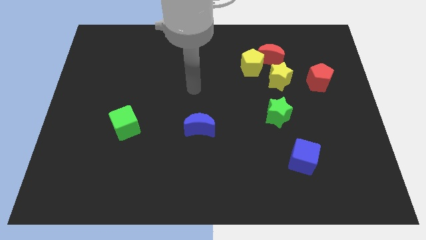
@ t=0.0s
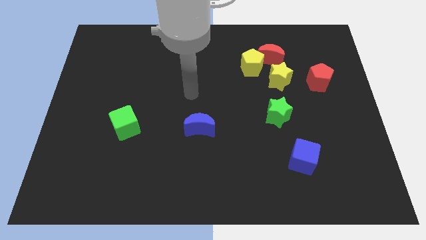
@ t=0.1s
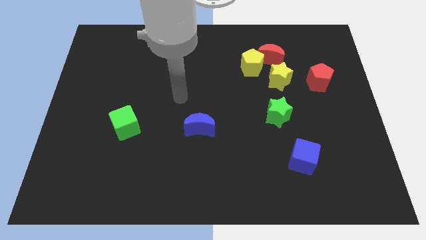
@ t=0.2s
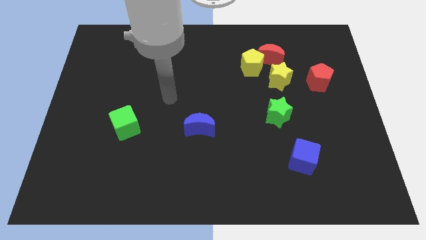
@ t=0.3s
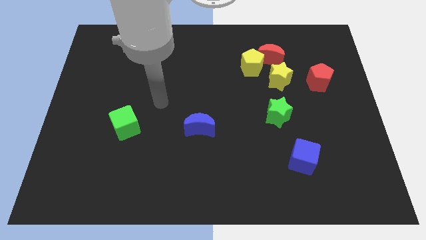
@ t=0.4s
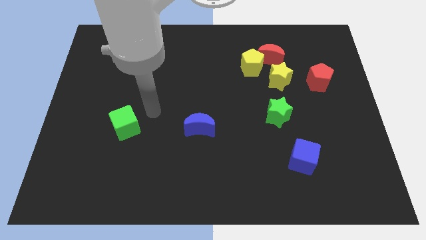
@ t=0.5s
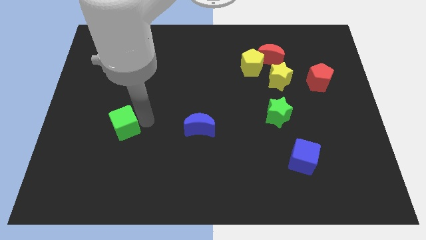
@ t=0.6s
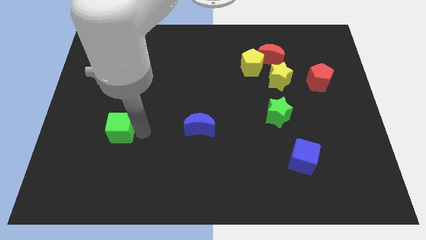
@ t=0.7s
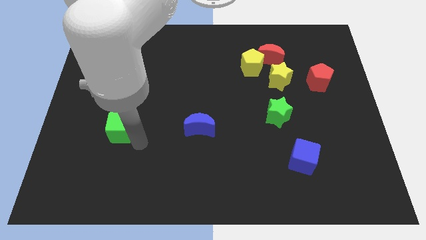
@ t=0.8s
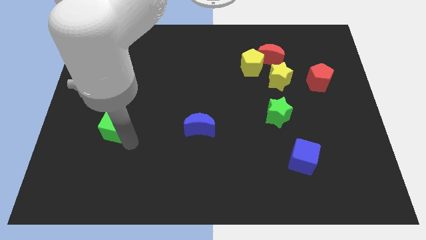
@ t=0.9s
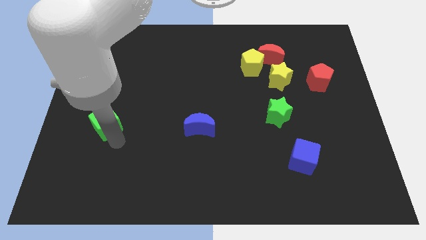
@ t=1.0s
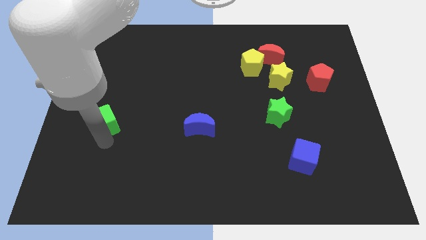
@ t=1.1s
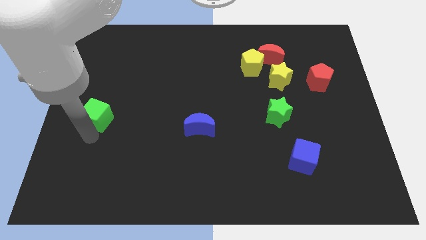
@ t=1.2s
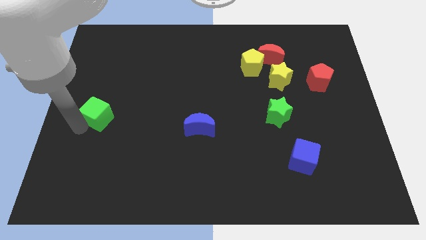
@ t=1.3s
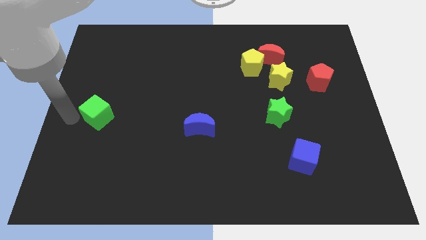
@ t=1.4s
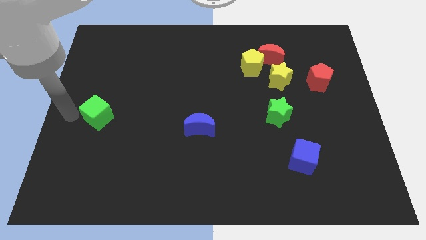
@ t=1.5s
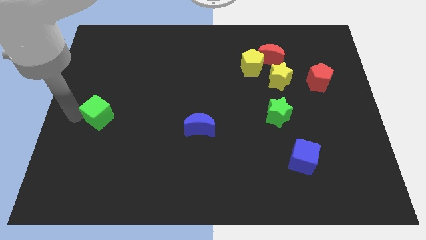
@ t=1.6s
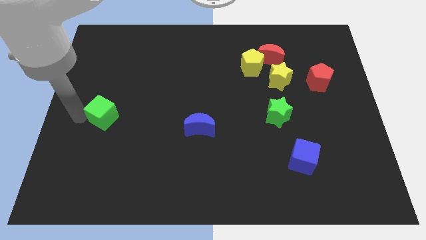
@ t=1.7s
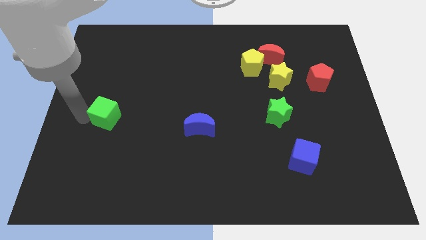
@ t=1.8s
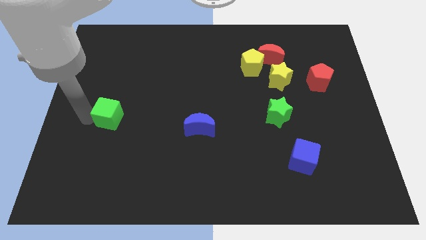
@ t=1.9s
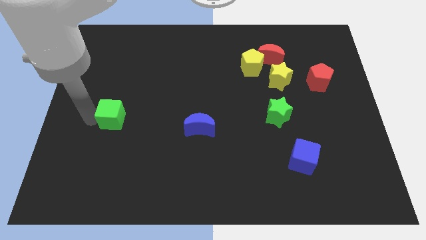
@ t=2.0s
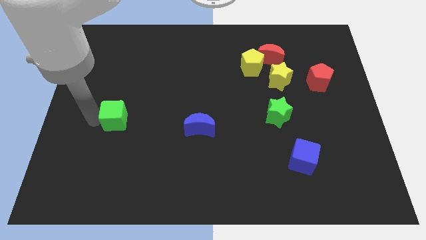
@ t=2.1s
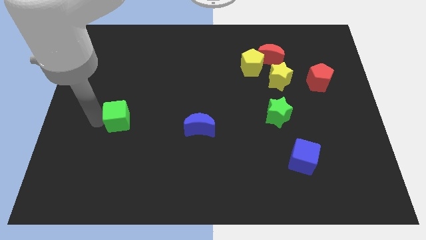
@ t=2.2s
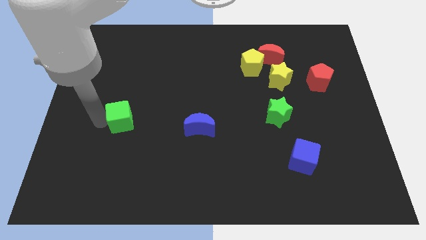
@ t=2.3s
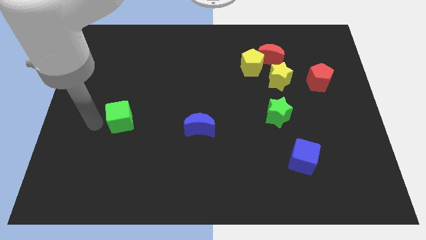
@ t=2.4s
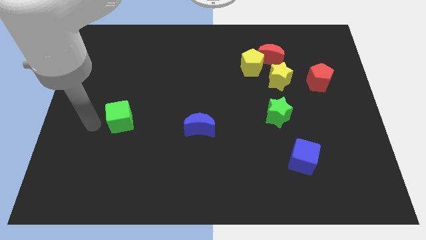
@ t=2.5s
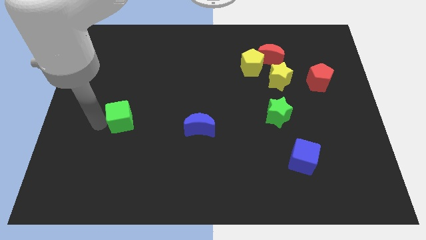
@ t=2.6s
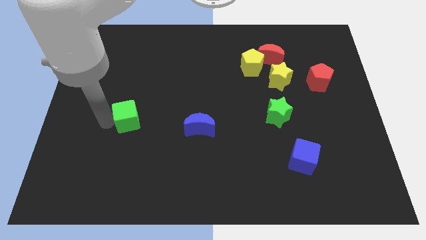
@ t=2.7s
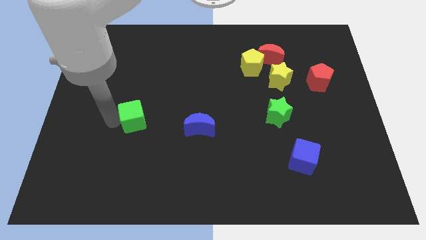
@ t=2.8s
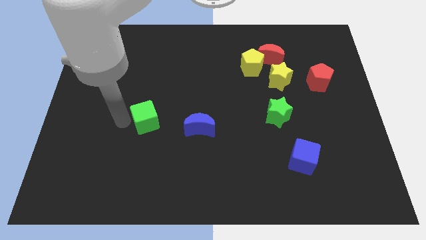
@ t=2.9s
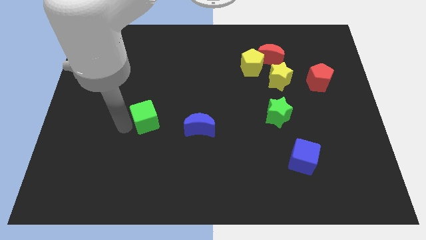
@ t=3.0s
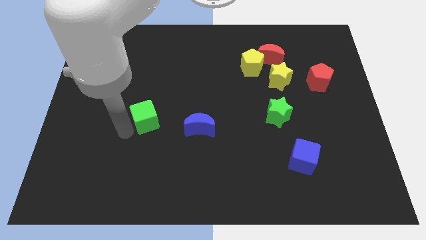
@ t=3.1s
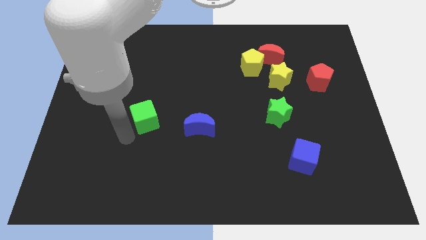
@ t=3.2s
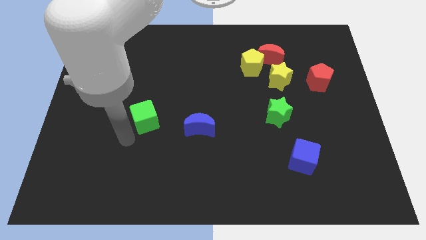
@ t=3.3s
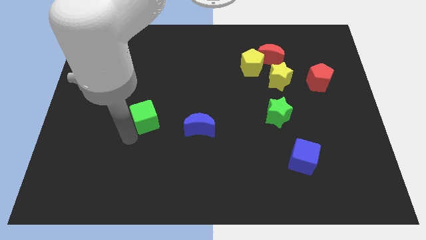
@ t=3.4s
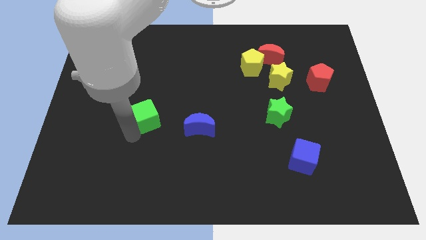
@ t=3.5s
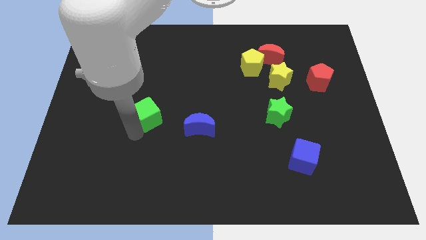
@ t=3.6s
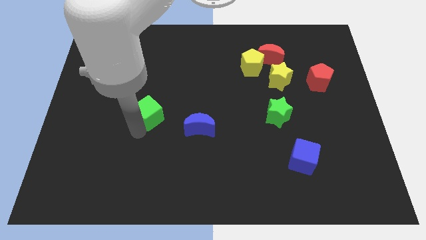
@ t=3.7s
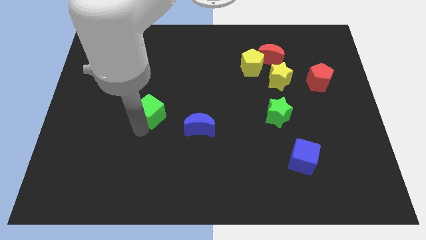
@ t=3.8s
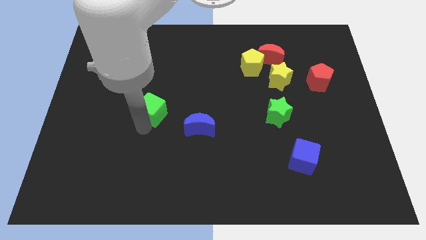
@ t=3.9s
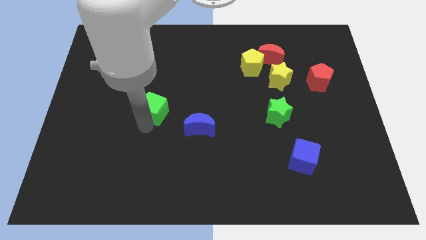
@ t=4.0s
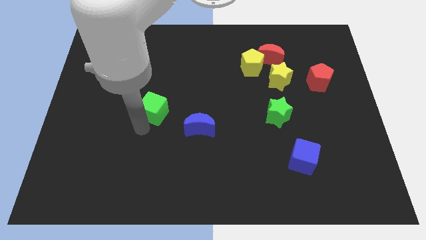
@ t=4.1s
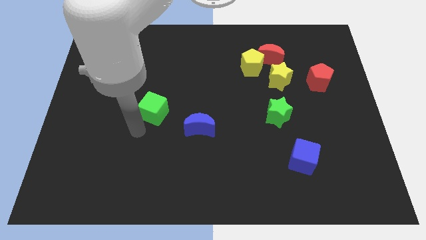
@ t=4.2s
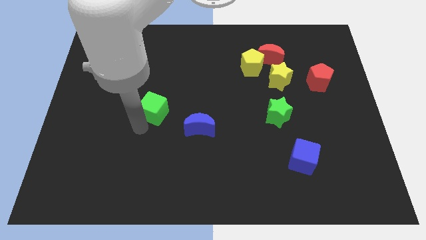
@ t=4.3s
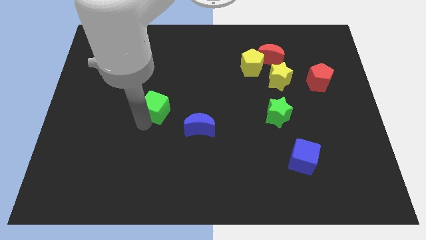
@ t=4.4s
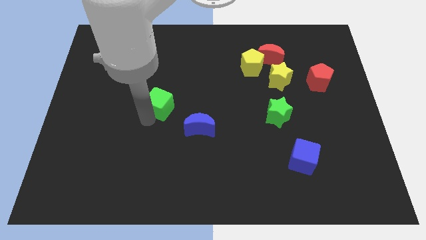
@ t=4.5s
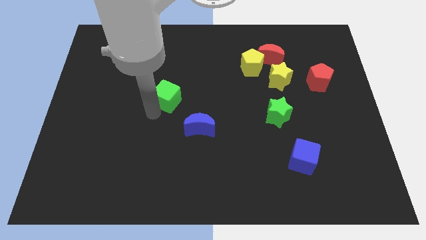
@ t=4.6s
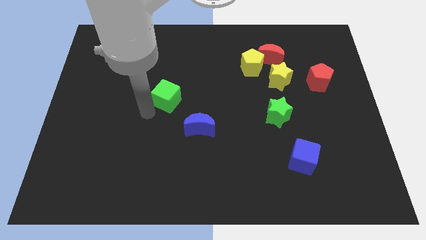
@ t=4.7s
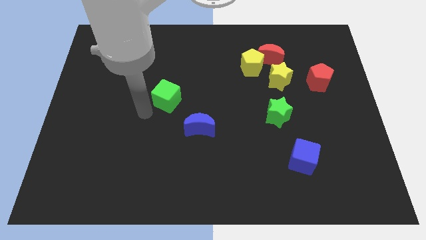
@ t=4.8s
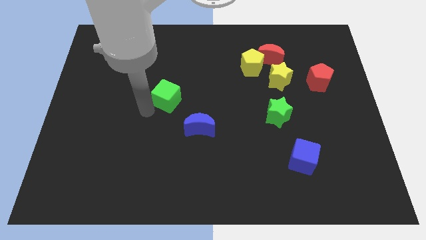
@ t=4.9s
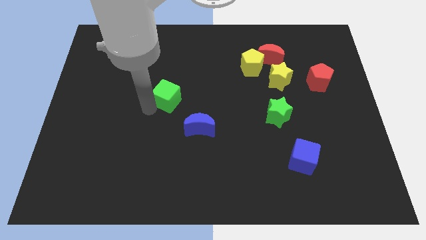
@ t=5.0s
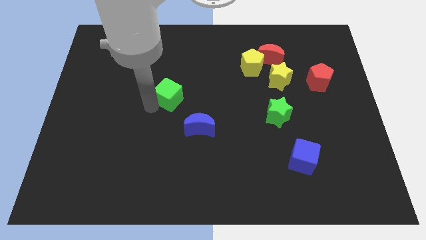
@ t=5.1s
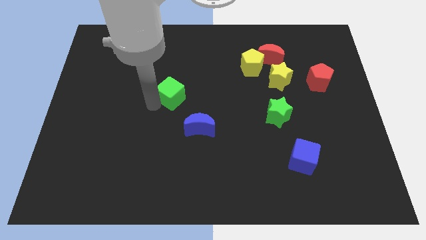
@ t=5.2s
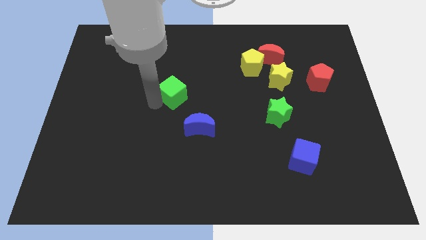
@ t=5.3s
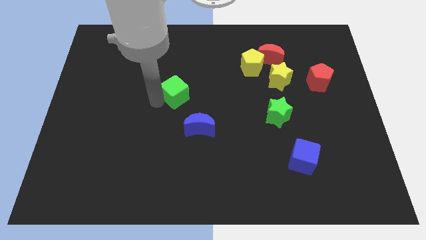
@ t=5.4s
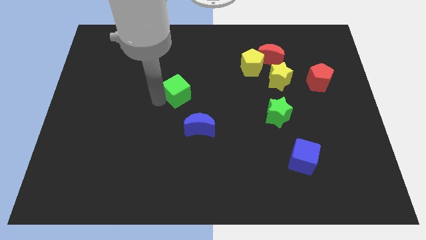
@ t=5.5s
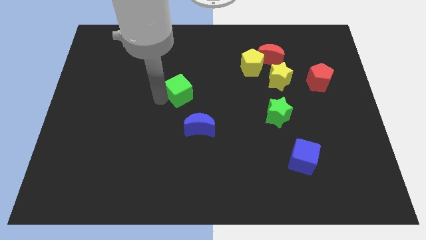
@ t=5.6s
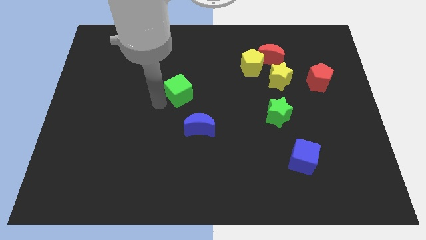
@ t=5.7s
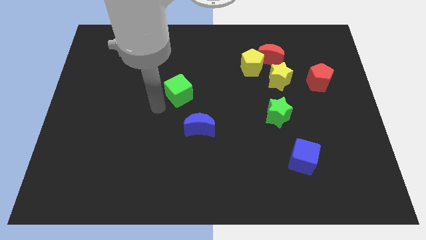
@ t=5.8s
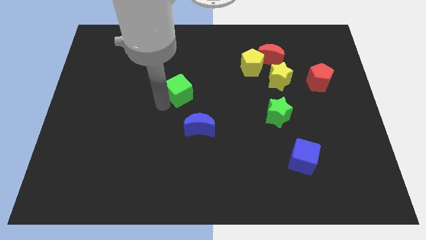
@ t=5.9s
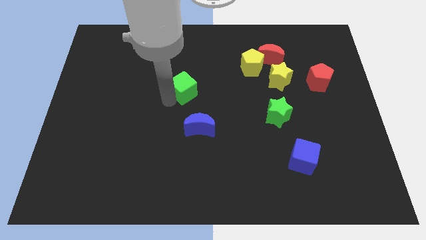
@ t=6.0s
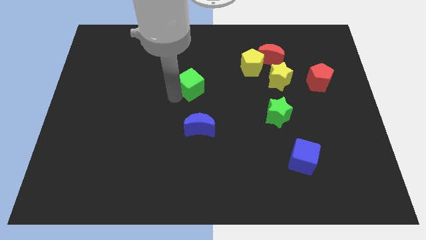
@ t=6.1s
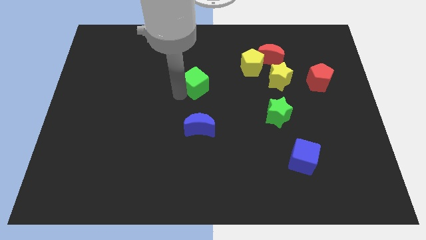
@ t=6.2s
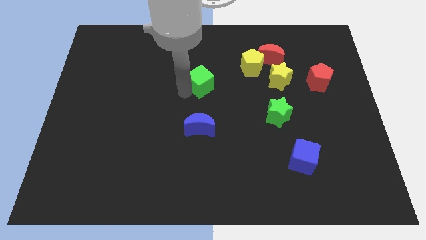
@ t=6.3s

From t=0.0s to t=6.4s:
slide the green cube up and then to the right

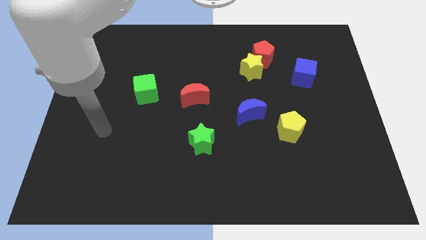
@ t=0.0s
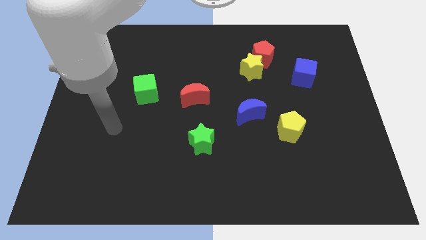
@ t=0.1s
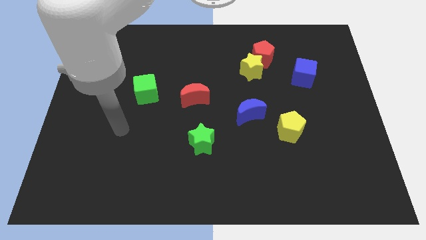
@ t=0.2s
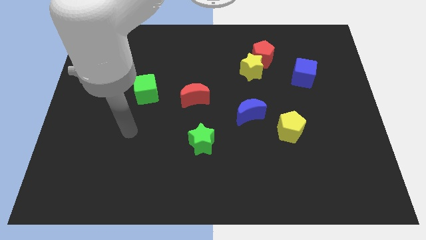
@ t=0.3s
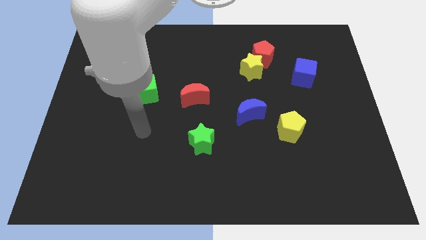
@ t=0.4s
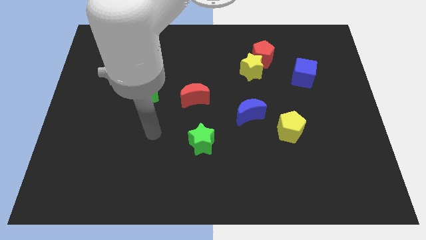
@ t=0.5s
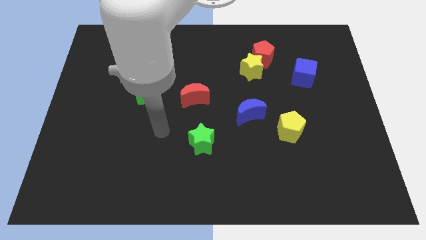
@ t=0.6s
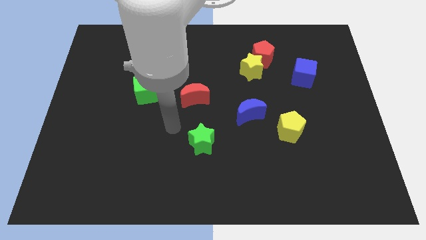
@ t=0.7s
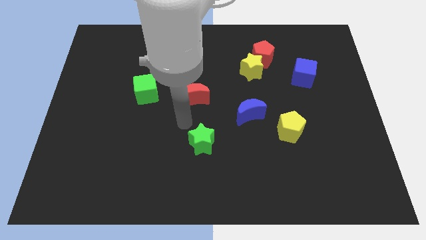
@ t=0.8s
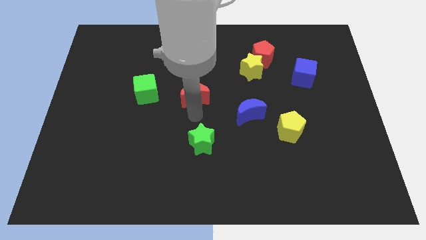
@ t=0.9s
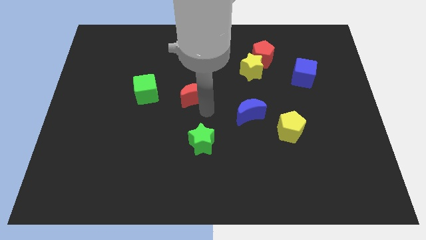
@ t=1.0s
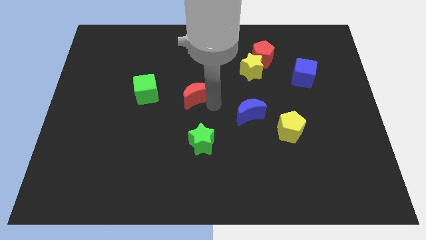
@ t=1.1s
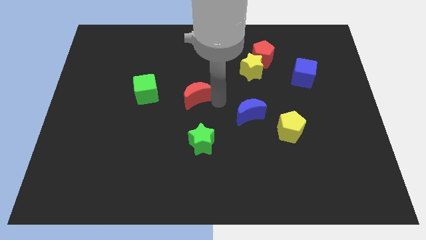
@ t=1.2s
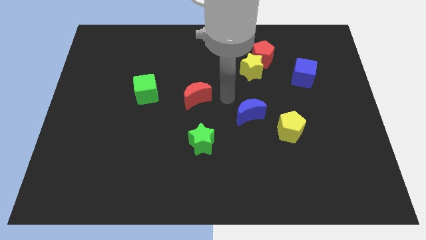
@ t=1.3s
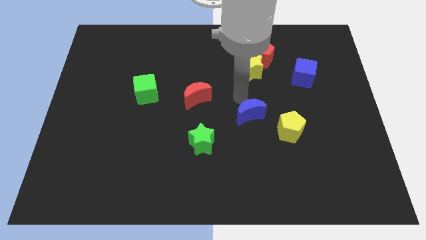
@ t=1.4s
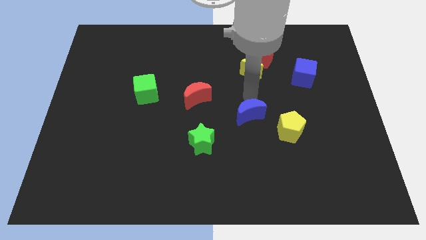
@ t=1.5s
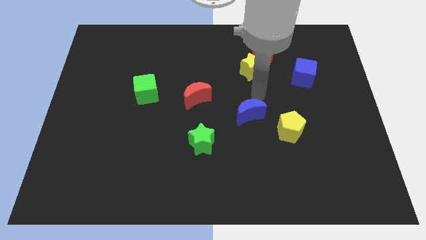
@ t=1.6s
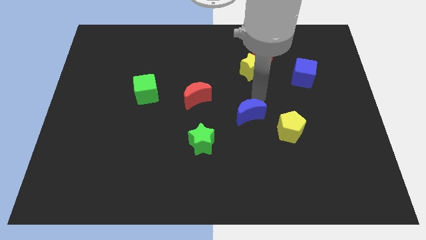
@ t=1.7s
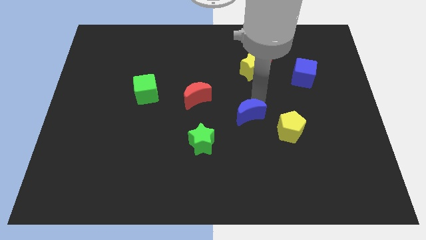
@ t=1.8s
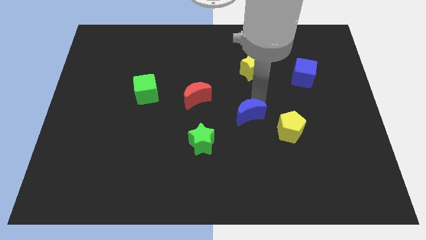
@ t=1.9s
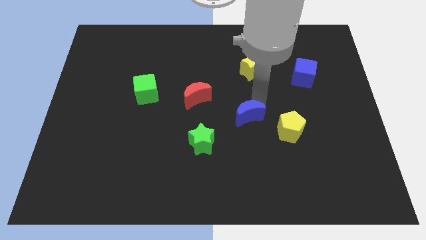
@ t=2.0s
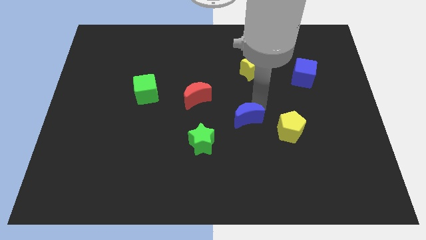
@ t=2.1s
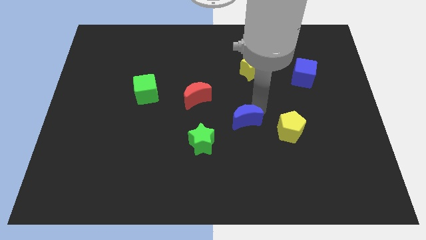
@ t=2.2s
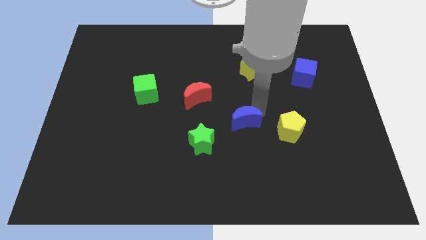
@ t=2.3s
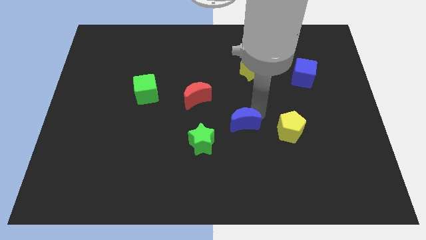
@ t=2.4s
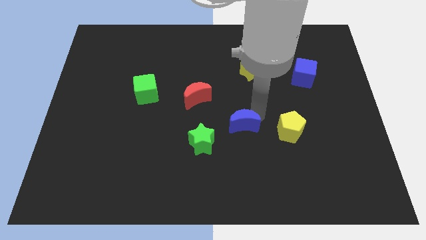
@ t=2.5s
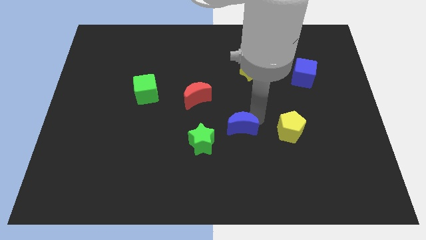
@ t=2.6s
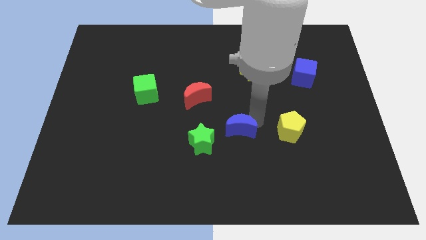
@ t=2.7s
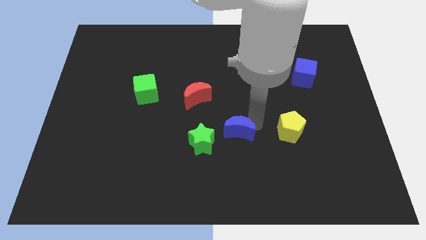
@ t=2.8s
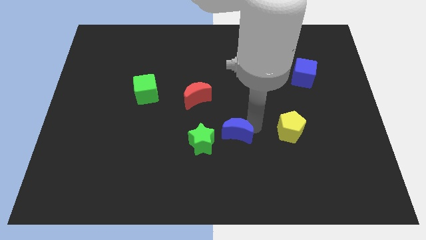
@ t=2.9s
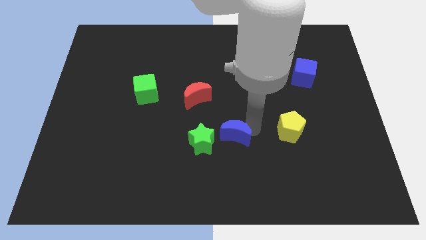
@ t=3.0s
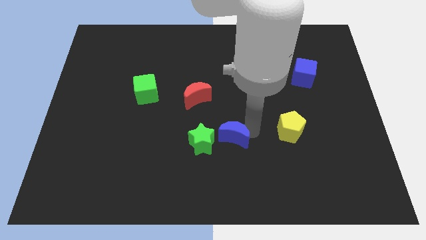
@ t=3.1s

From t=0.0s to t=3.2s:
push the blue moon downwards and then to the left somewhat
